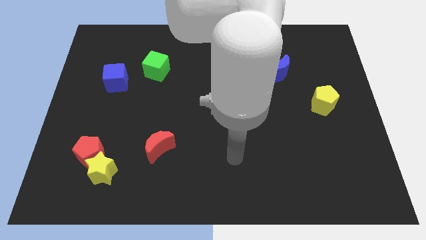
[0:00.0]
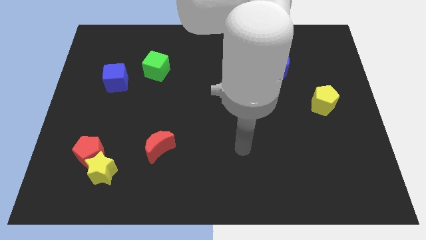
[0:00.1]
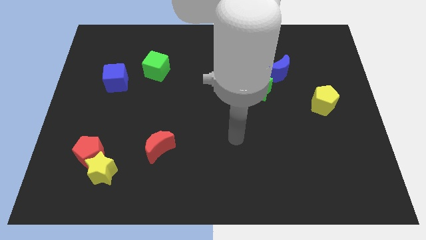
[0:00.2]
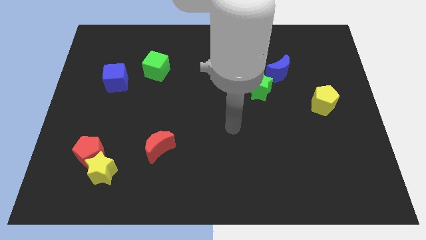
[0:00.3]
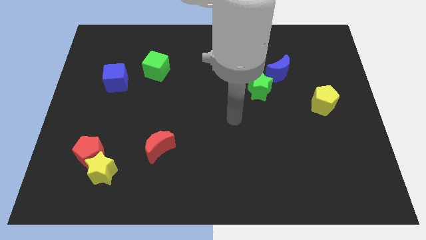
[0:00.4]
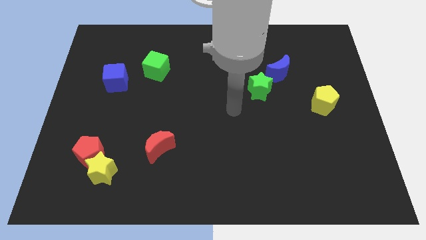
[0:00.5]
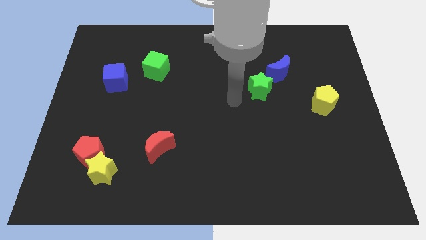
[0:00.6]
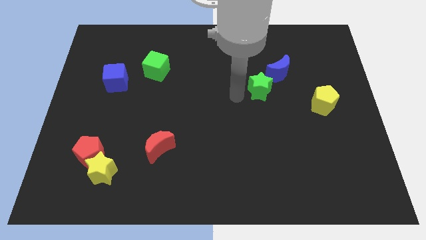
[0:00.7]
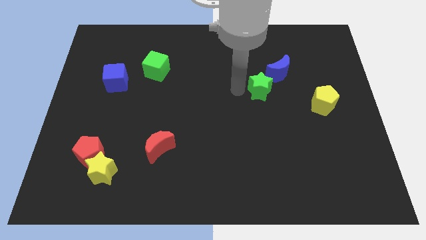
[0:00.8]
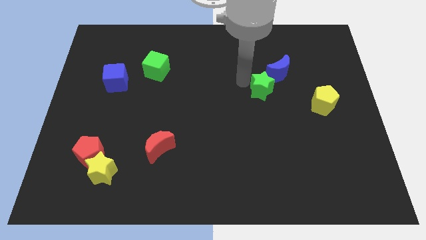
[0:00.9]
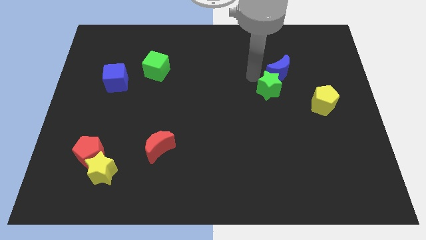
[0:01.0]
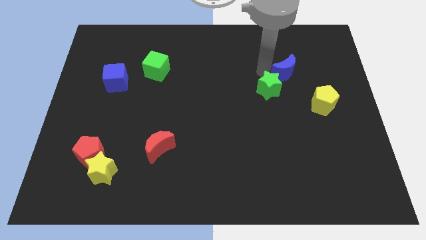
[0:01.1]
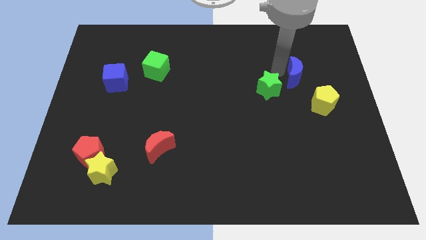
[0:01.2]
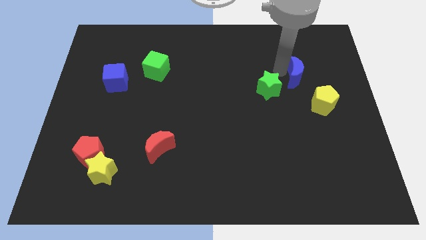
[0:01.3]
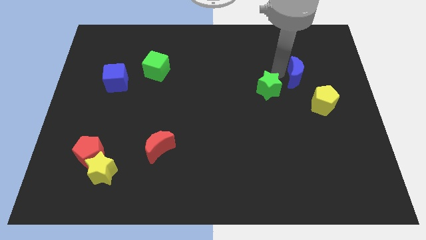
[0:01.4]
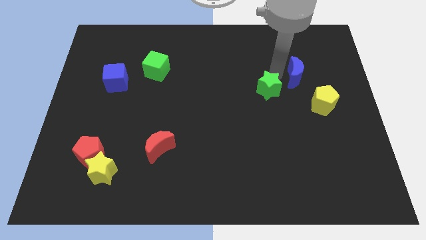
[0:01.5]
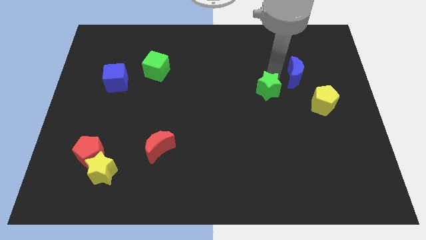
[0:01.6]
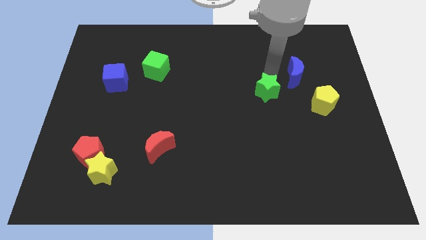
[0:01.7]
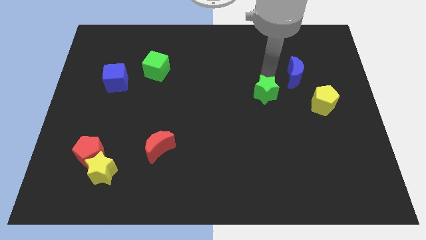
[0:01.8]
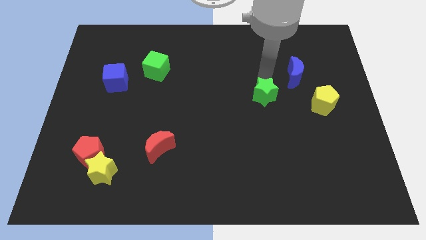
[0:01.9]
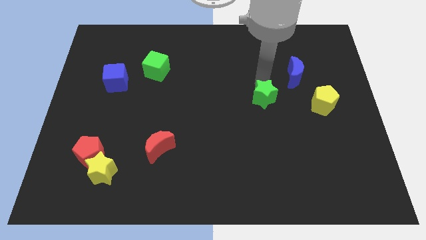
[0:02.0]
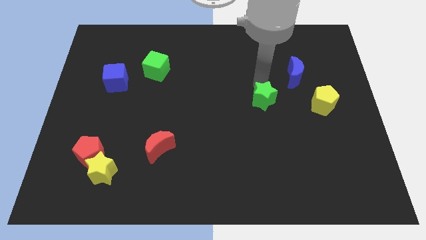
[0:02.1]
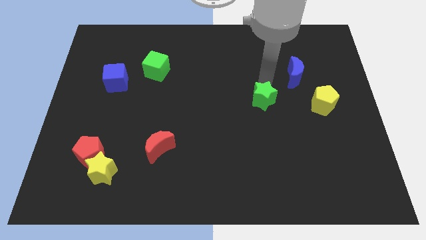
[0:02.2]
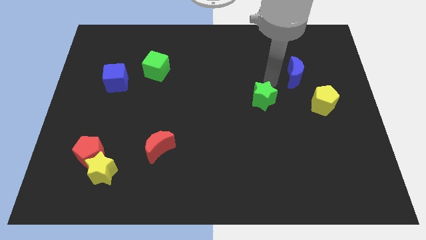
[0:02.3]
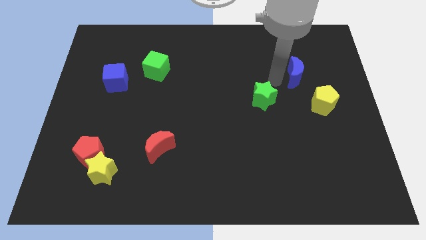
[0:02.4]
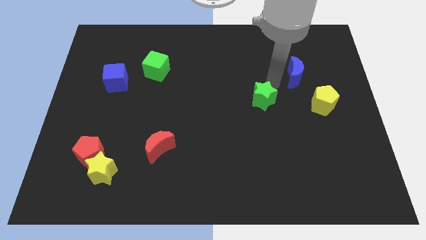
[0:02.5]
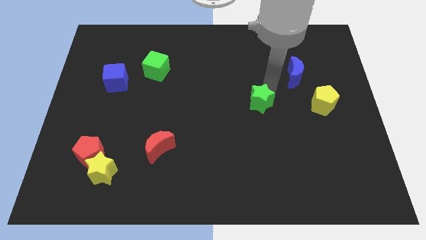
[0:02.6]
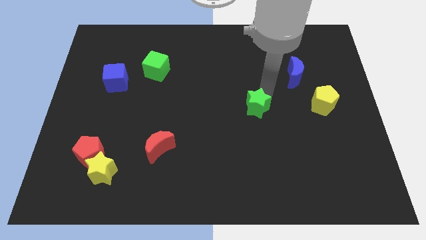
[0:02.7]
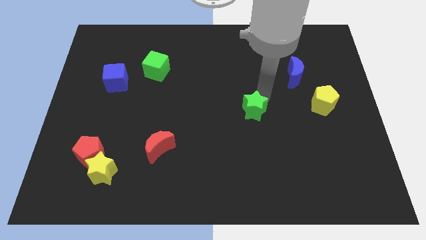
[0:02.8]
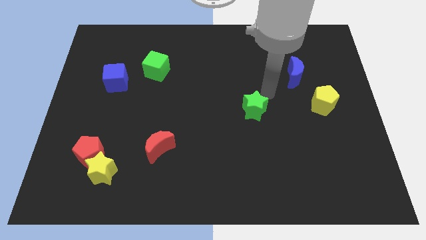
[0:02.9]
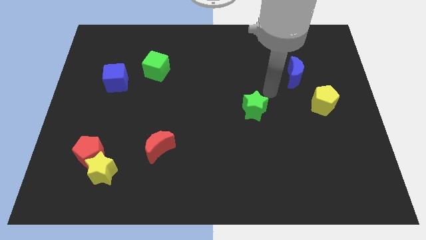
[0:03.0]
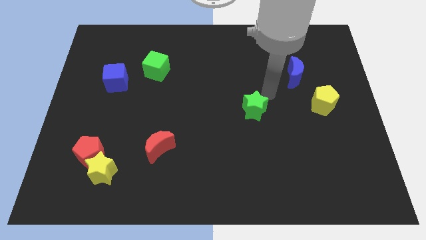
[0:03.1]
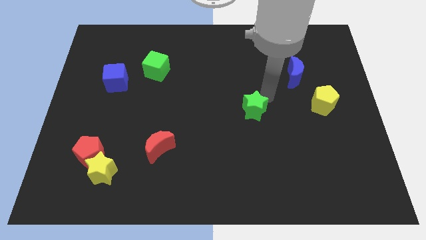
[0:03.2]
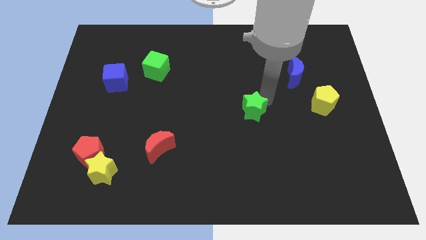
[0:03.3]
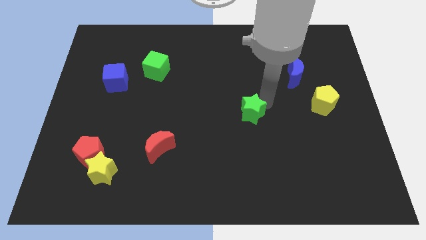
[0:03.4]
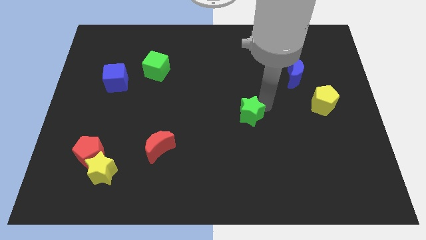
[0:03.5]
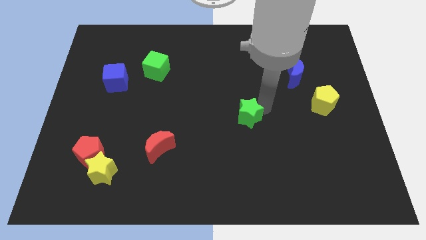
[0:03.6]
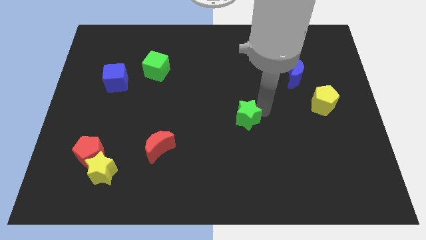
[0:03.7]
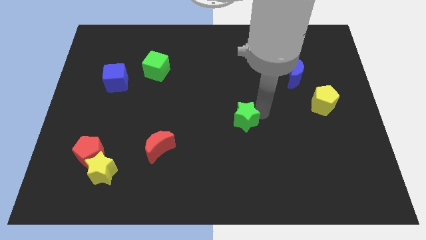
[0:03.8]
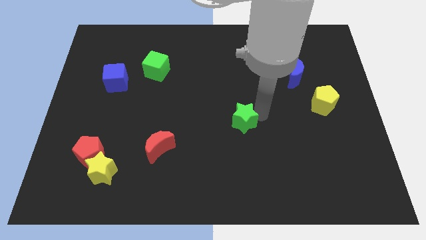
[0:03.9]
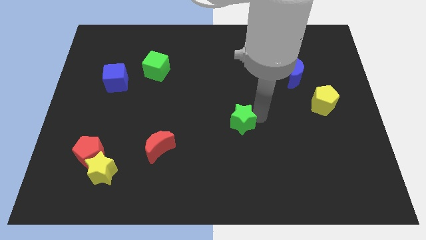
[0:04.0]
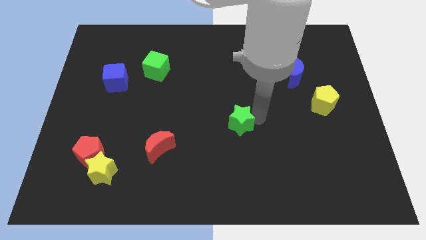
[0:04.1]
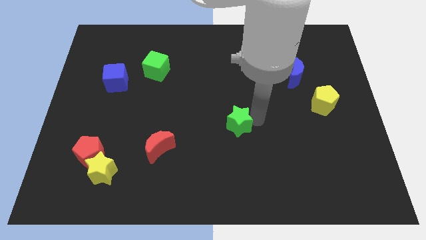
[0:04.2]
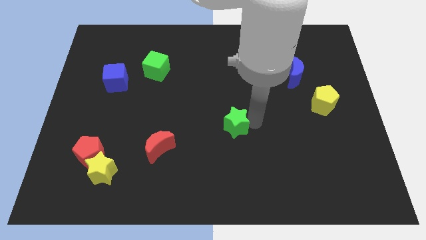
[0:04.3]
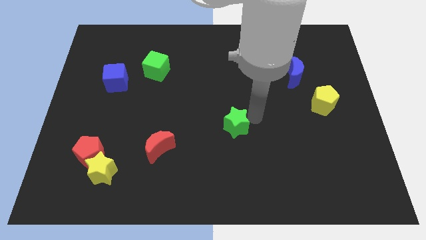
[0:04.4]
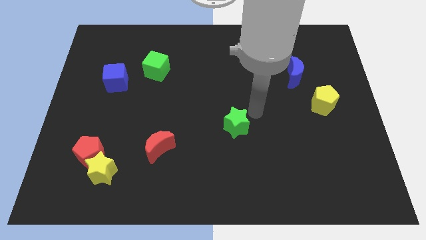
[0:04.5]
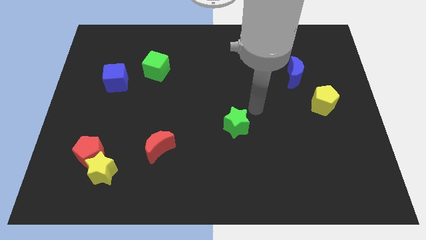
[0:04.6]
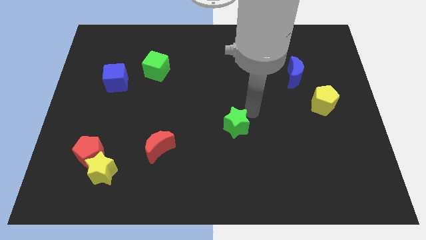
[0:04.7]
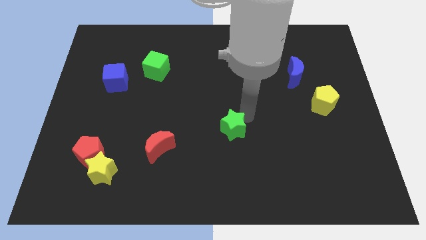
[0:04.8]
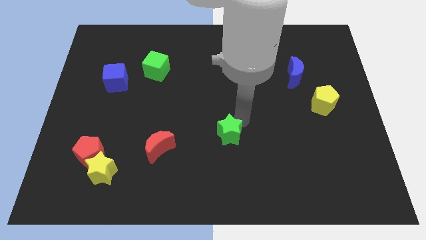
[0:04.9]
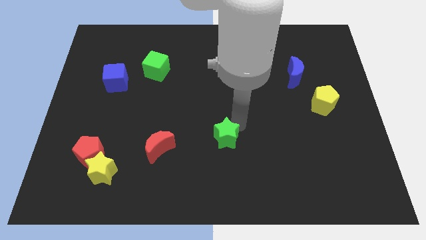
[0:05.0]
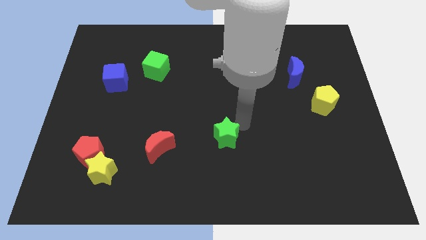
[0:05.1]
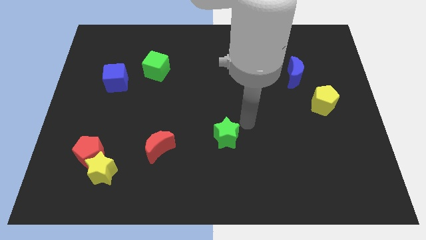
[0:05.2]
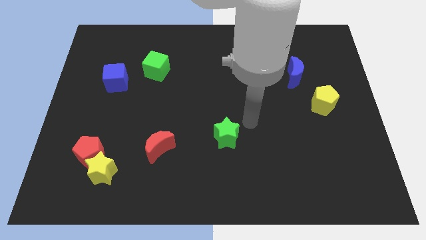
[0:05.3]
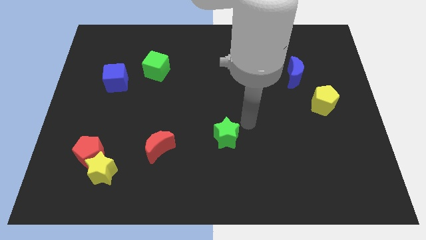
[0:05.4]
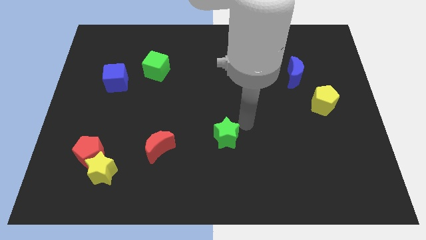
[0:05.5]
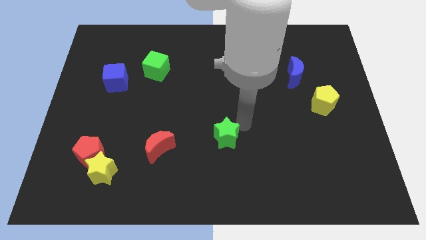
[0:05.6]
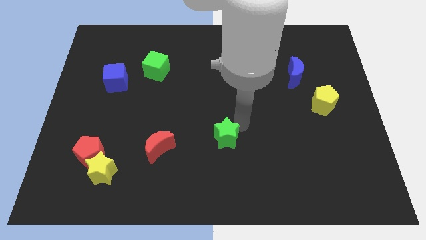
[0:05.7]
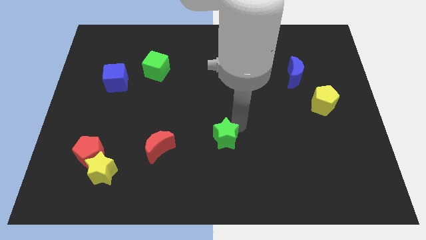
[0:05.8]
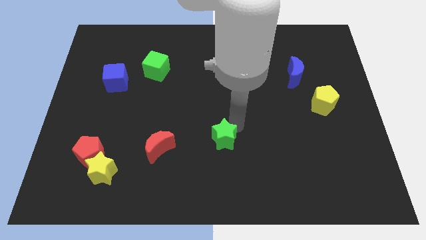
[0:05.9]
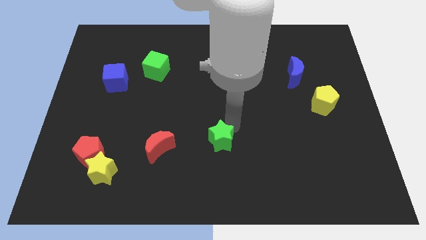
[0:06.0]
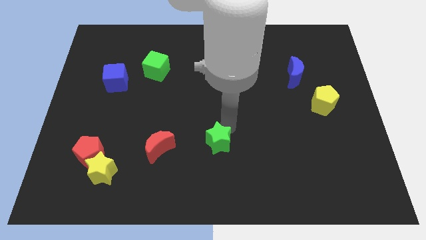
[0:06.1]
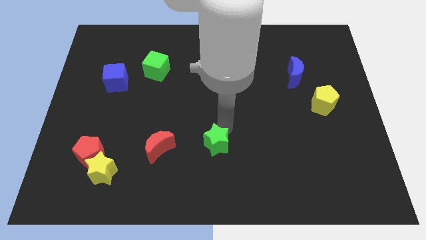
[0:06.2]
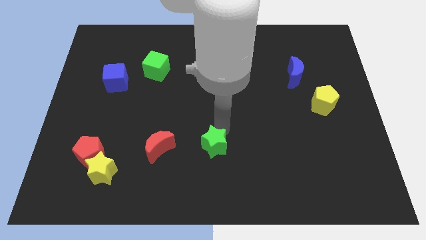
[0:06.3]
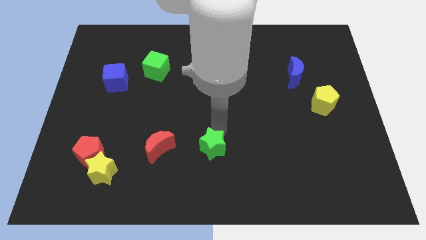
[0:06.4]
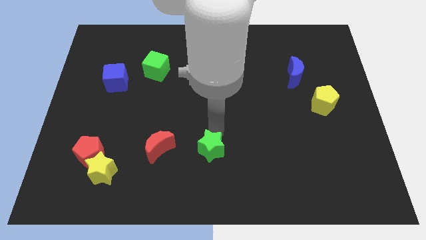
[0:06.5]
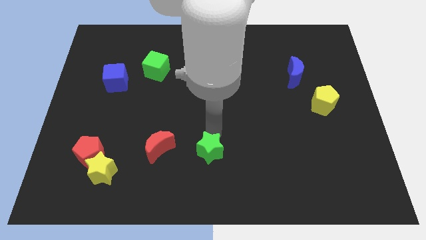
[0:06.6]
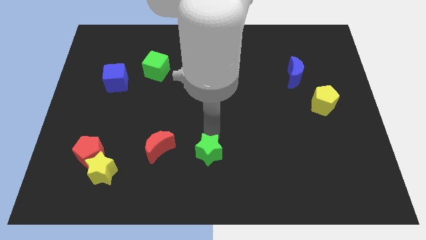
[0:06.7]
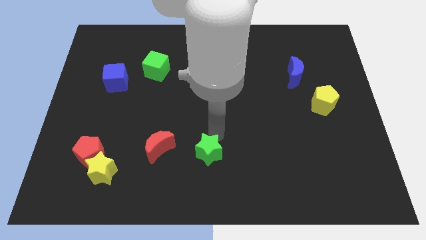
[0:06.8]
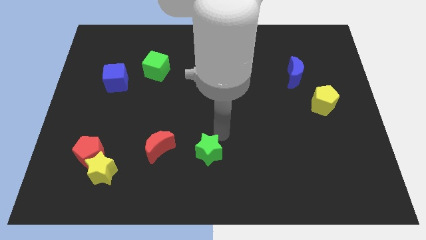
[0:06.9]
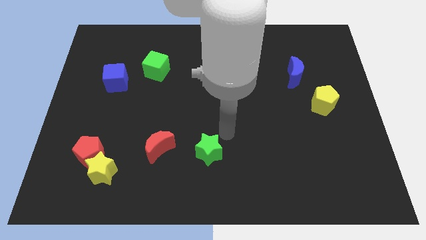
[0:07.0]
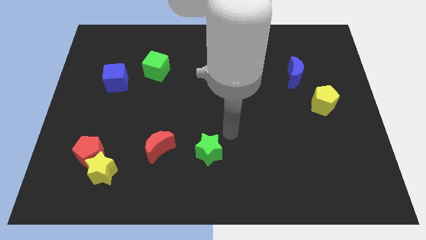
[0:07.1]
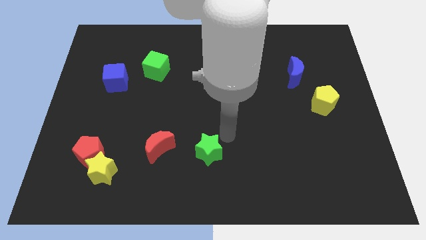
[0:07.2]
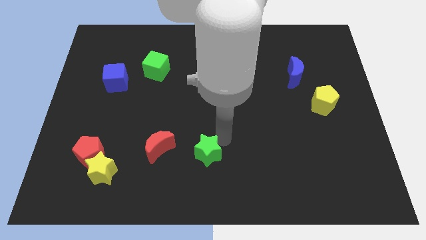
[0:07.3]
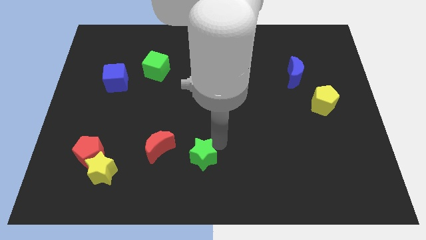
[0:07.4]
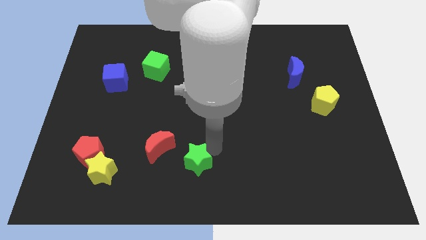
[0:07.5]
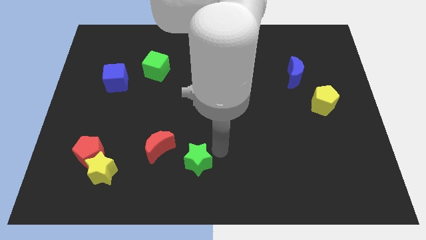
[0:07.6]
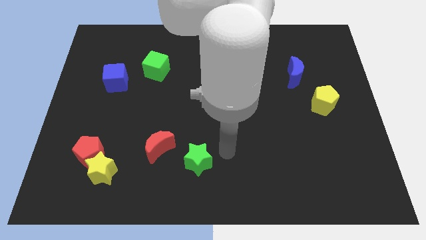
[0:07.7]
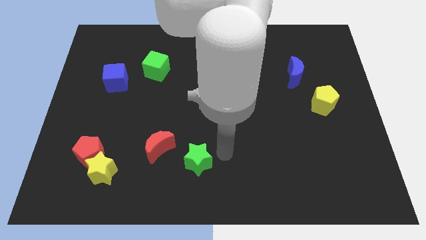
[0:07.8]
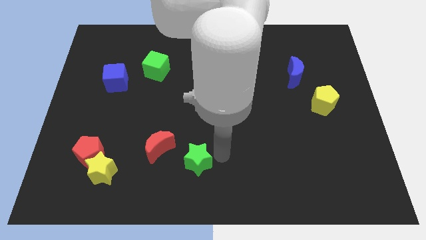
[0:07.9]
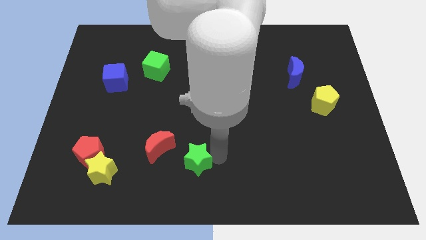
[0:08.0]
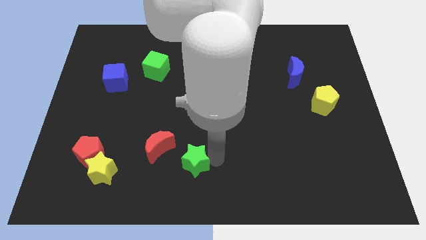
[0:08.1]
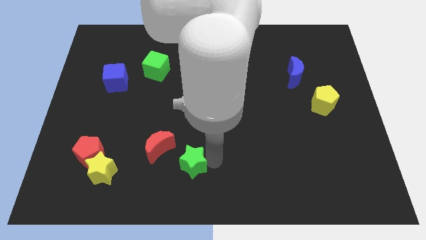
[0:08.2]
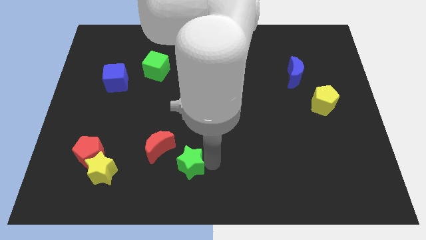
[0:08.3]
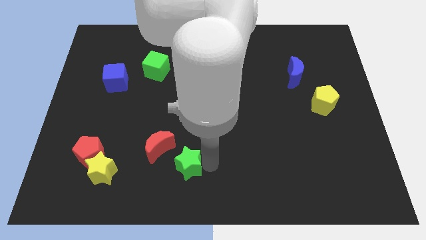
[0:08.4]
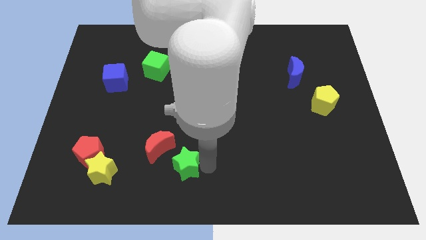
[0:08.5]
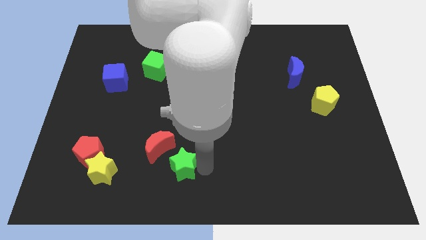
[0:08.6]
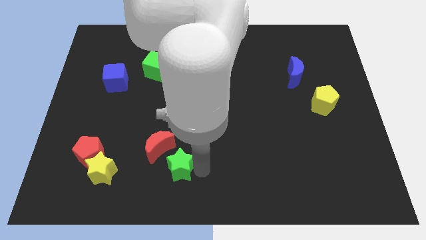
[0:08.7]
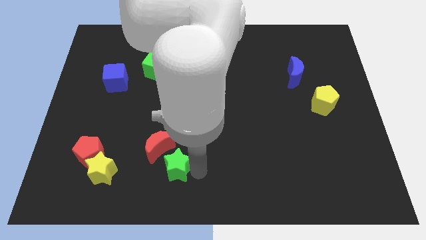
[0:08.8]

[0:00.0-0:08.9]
move the green star just right of the yellow star
